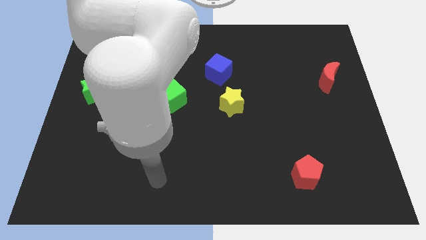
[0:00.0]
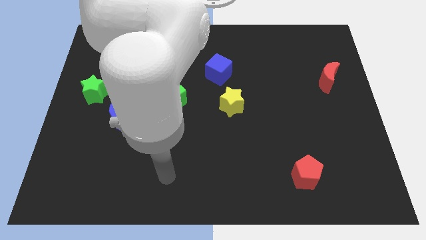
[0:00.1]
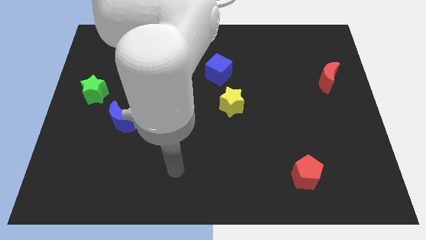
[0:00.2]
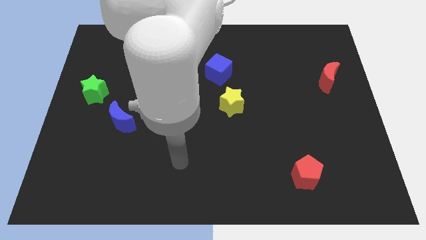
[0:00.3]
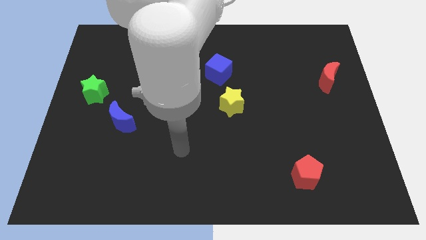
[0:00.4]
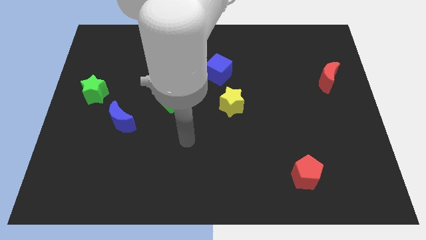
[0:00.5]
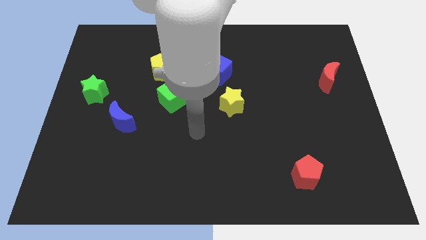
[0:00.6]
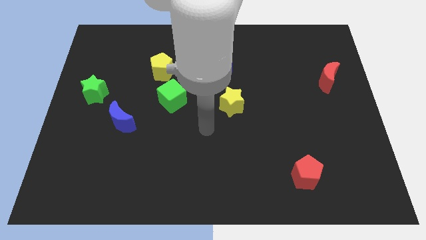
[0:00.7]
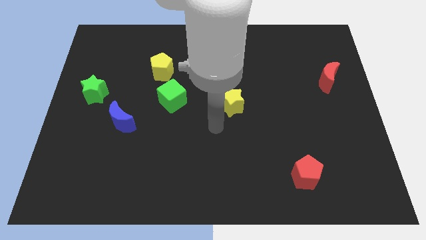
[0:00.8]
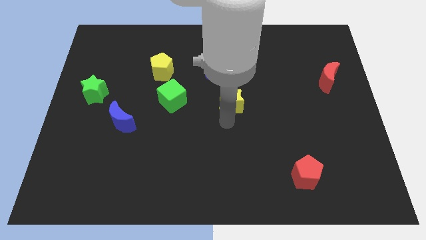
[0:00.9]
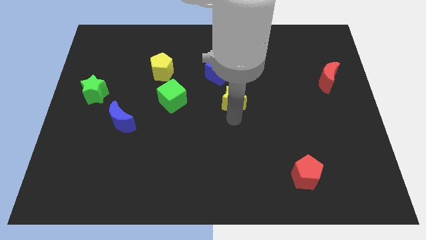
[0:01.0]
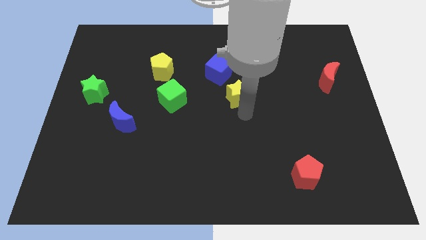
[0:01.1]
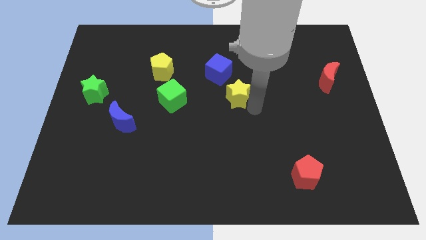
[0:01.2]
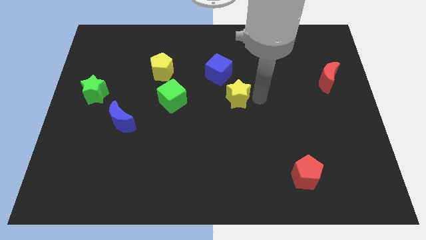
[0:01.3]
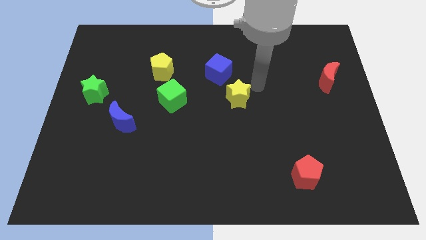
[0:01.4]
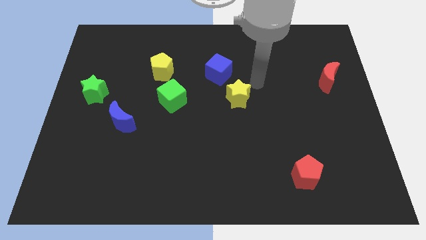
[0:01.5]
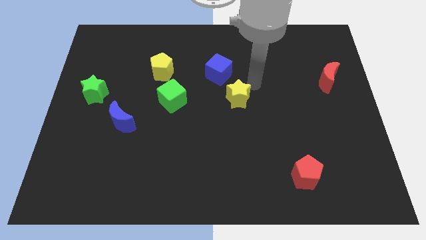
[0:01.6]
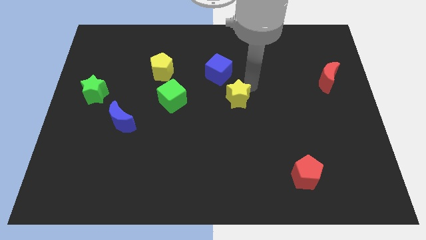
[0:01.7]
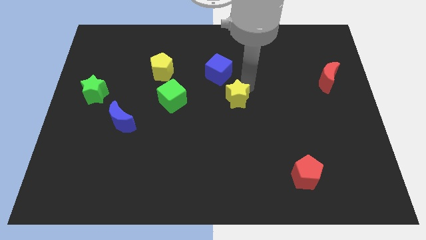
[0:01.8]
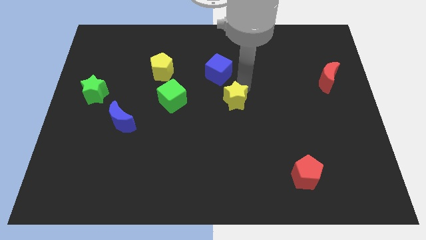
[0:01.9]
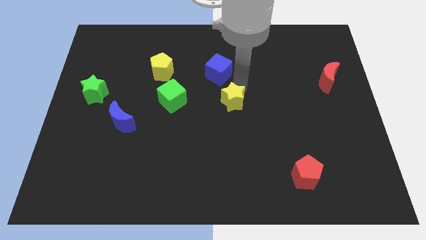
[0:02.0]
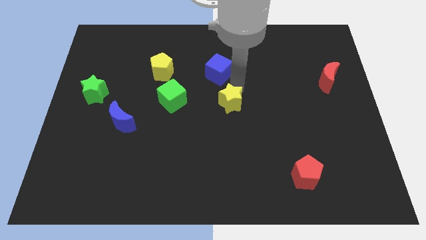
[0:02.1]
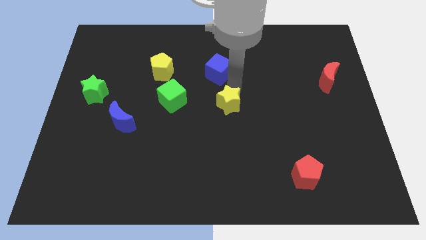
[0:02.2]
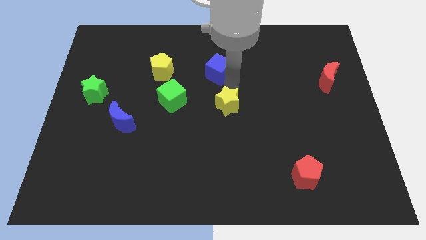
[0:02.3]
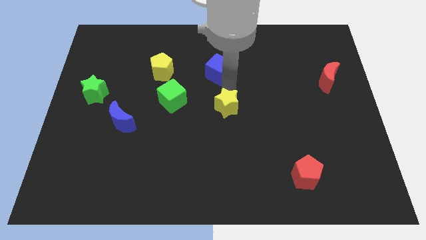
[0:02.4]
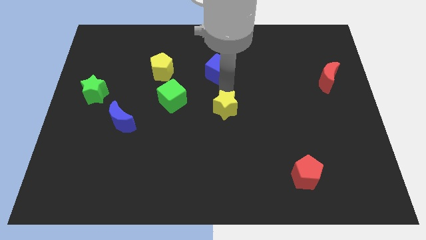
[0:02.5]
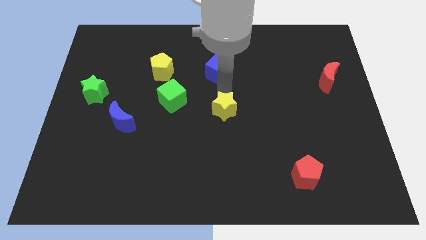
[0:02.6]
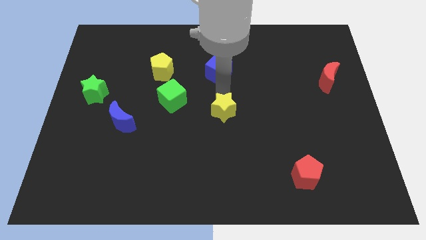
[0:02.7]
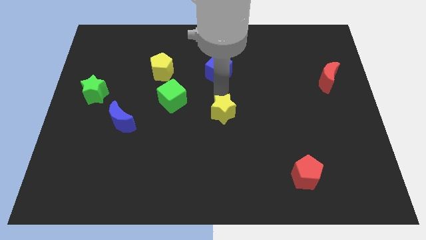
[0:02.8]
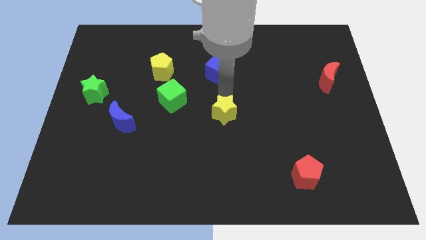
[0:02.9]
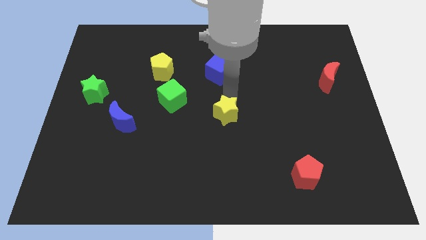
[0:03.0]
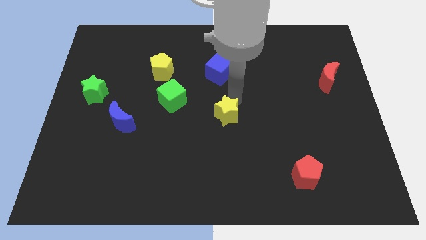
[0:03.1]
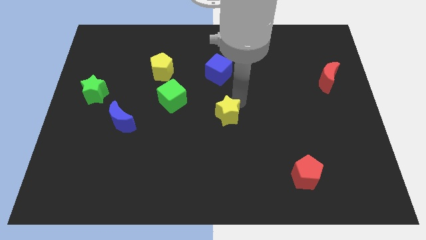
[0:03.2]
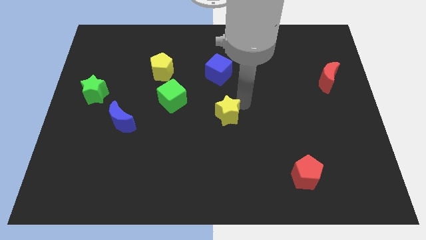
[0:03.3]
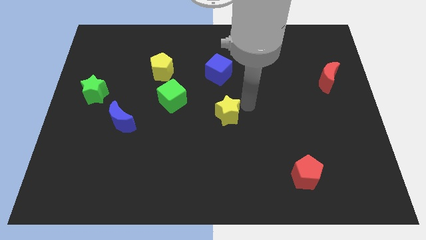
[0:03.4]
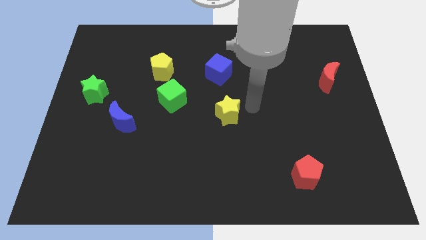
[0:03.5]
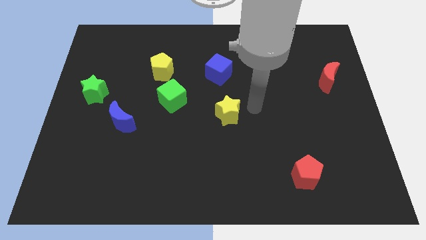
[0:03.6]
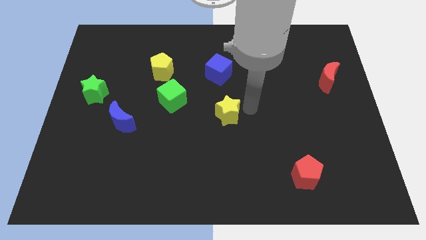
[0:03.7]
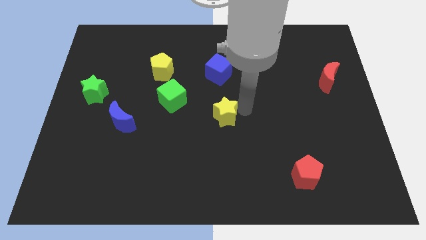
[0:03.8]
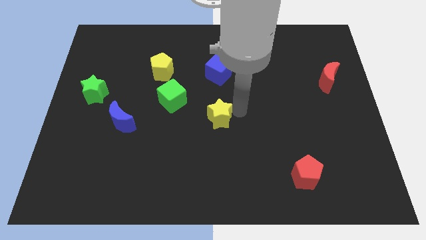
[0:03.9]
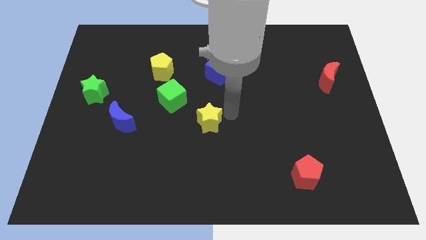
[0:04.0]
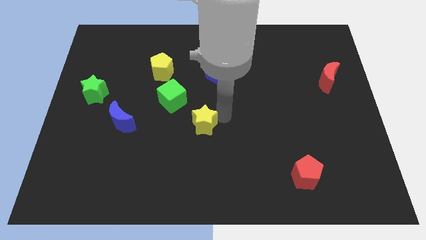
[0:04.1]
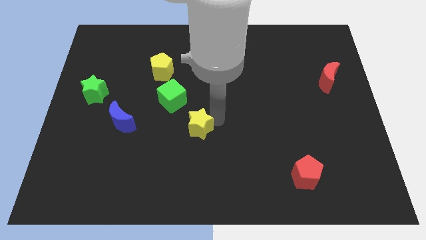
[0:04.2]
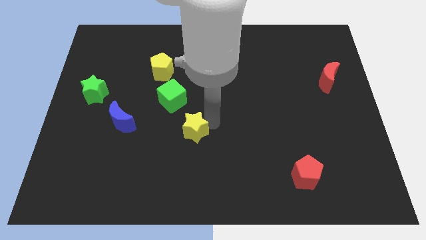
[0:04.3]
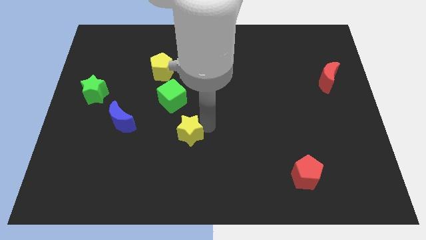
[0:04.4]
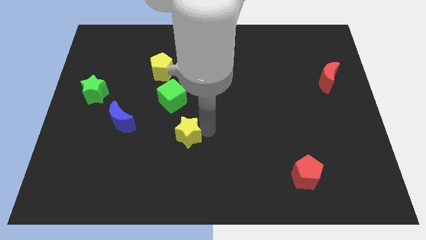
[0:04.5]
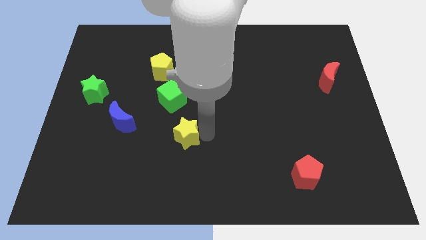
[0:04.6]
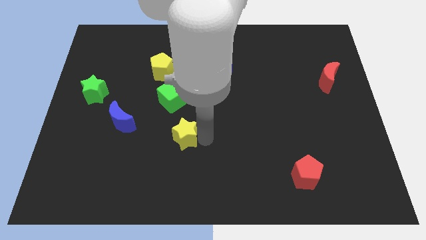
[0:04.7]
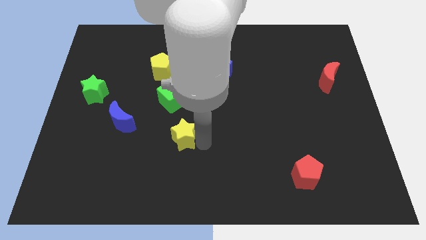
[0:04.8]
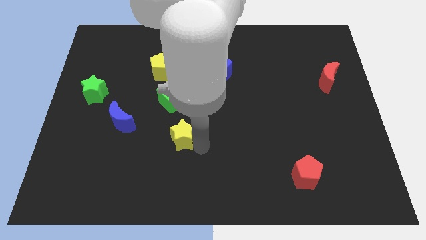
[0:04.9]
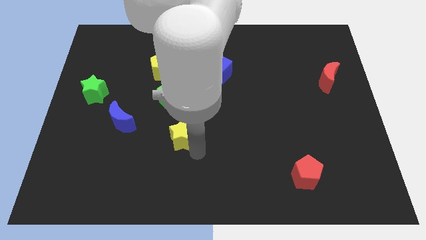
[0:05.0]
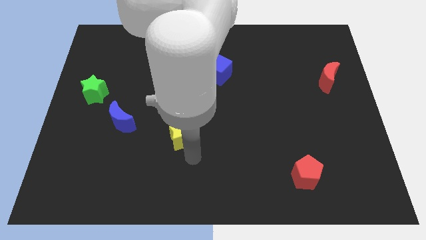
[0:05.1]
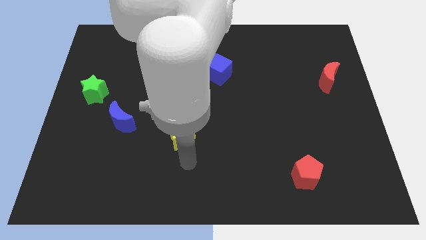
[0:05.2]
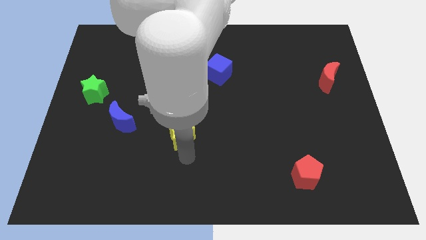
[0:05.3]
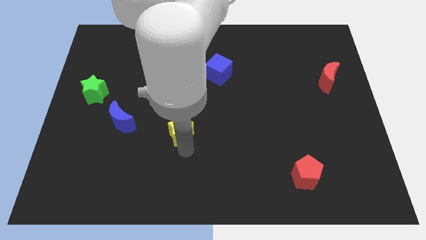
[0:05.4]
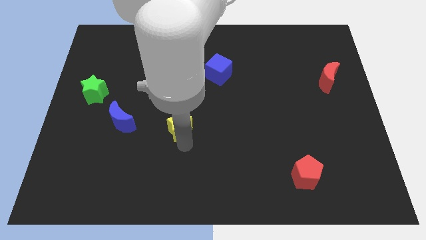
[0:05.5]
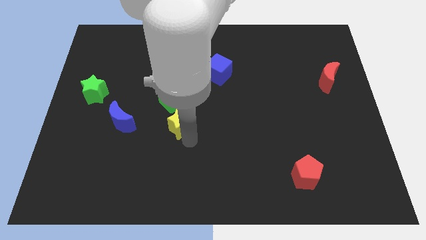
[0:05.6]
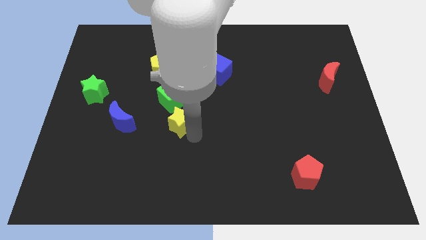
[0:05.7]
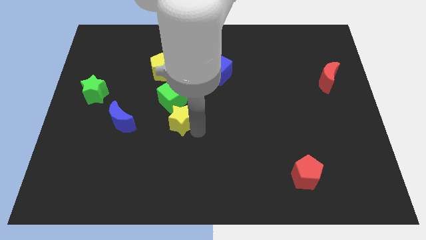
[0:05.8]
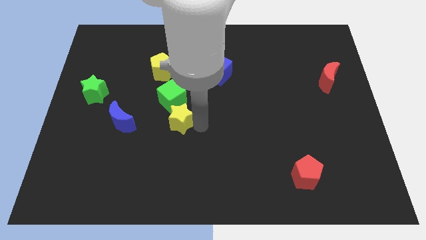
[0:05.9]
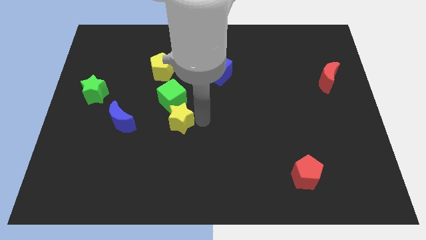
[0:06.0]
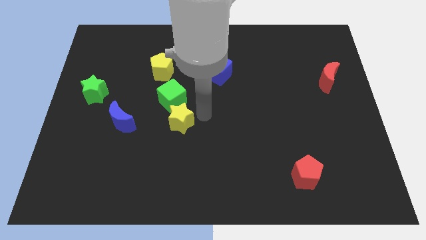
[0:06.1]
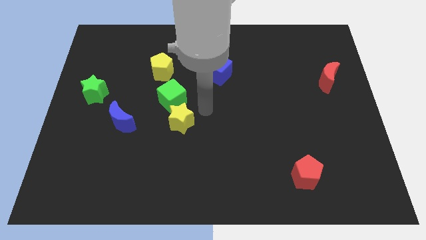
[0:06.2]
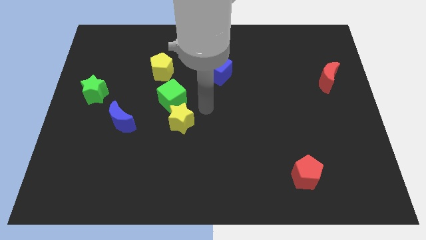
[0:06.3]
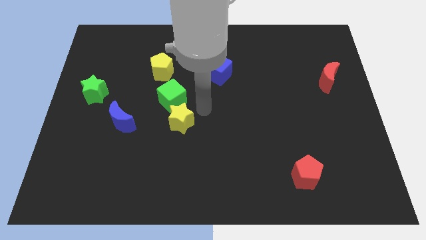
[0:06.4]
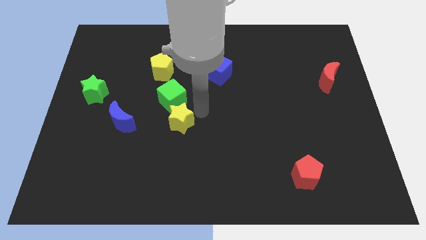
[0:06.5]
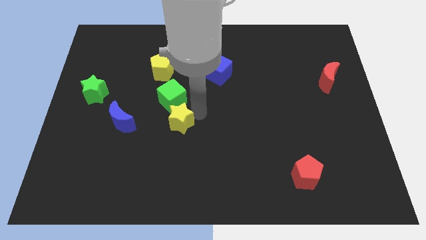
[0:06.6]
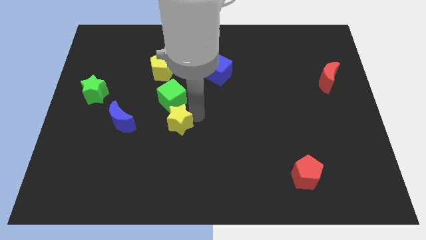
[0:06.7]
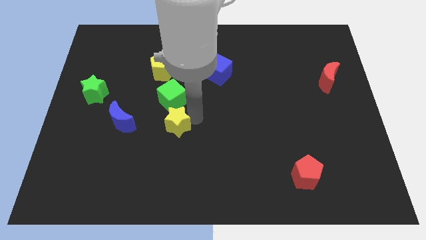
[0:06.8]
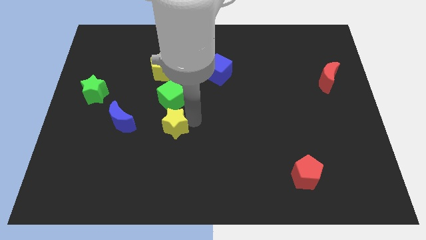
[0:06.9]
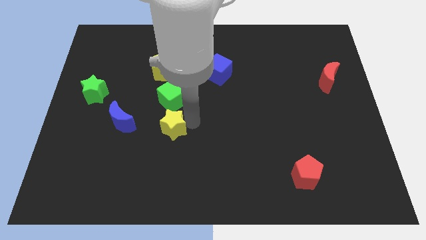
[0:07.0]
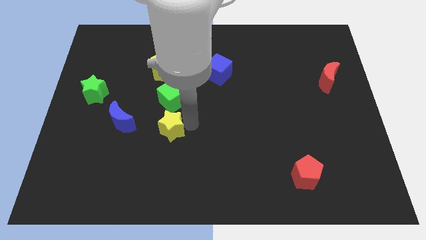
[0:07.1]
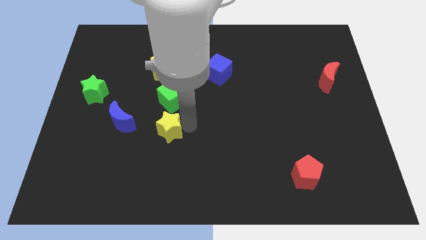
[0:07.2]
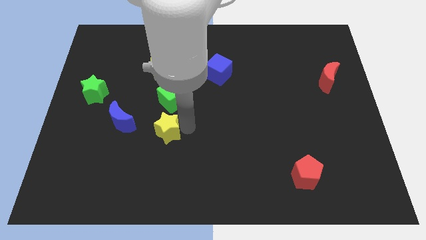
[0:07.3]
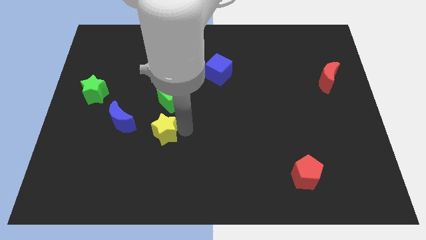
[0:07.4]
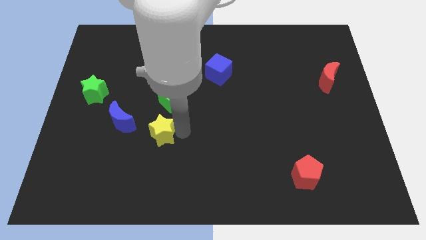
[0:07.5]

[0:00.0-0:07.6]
move the yellow star to the bottom right side of the blue moon

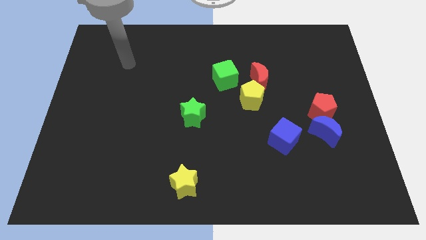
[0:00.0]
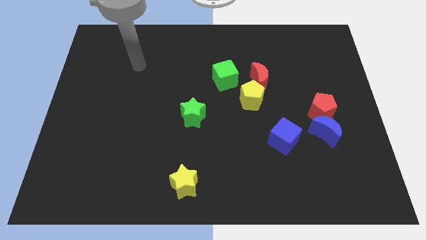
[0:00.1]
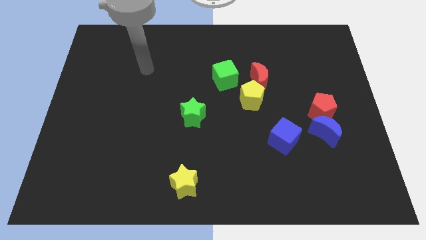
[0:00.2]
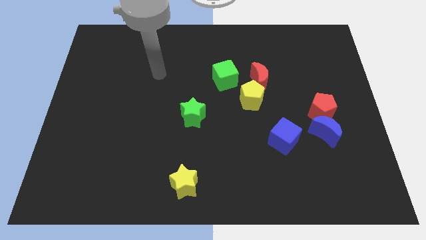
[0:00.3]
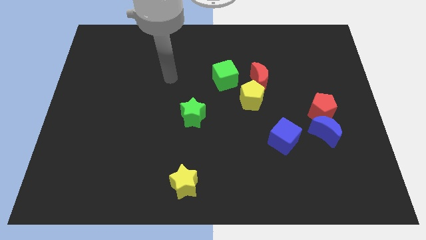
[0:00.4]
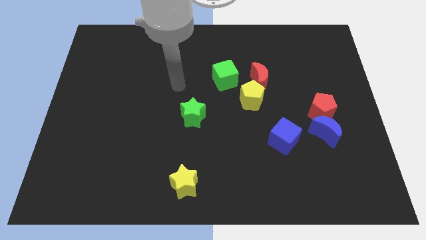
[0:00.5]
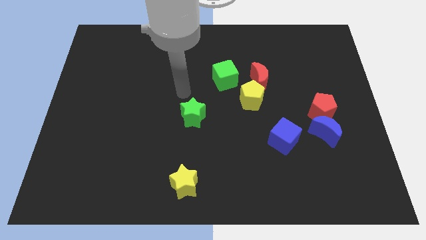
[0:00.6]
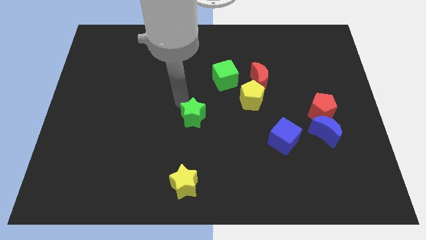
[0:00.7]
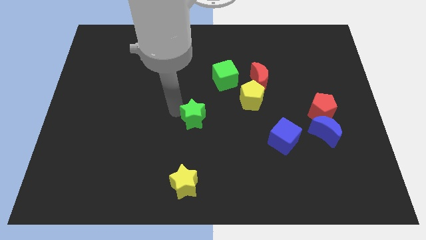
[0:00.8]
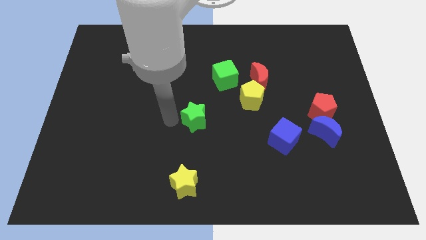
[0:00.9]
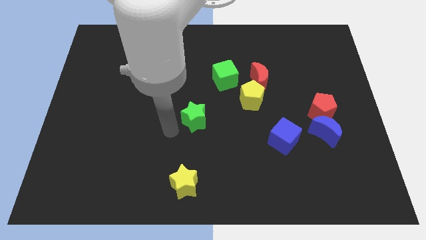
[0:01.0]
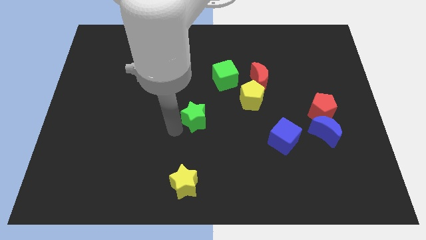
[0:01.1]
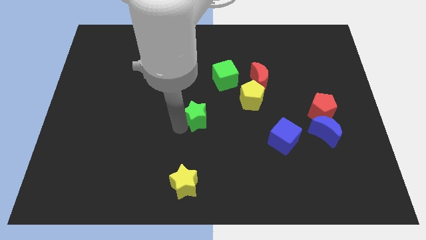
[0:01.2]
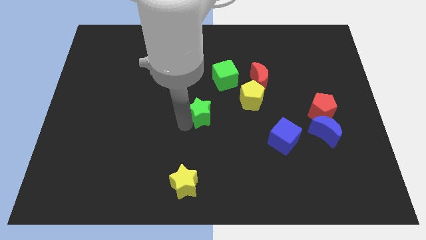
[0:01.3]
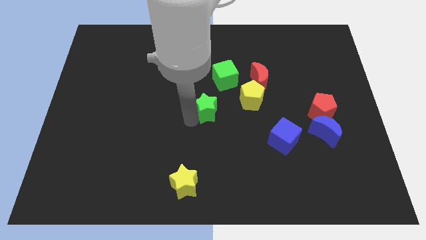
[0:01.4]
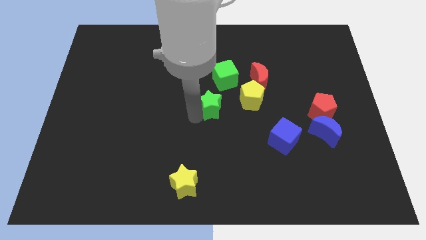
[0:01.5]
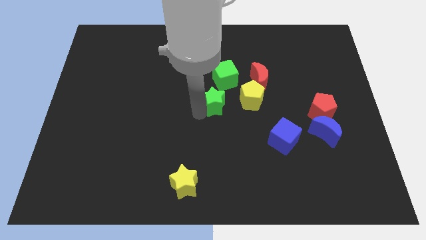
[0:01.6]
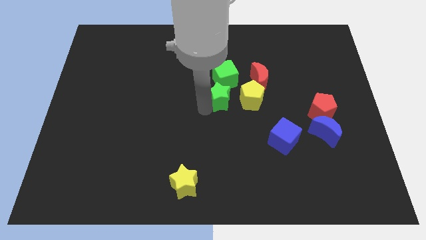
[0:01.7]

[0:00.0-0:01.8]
slide the green star to the bottom left of the red moon
